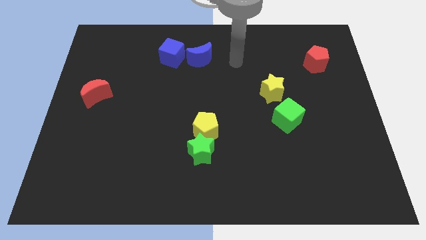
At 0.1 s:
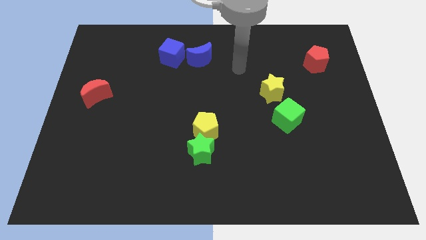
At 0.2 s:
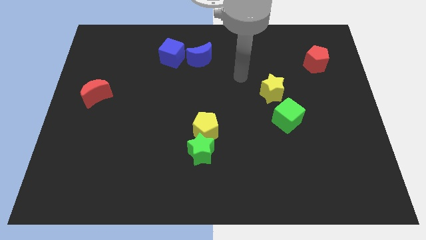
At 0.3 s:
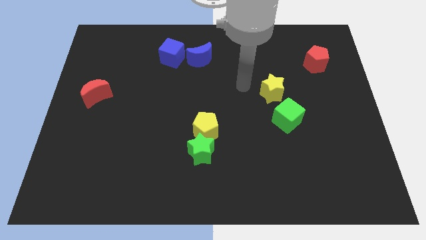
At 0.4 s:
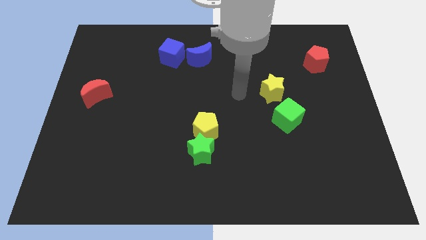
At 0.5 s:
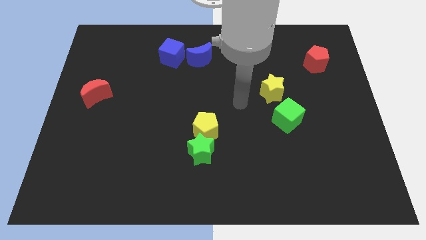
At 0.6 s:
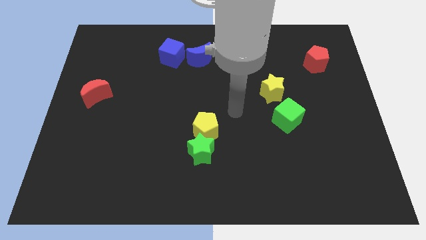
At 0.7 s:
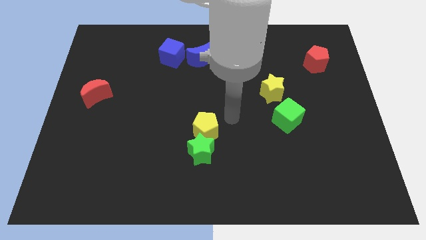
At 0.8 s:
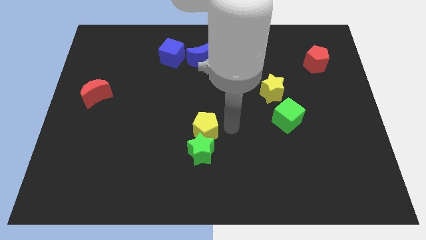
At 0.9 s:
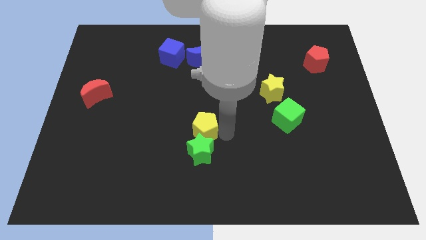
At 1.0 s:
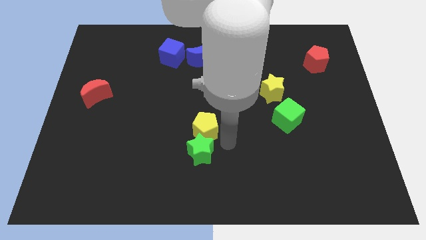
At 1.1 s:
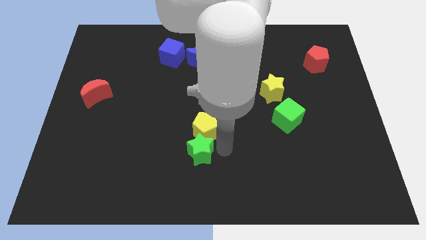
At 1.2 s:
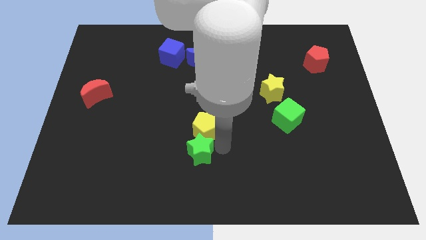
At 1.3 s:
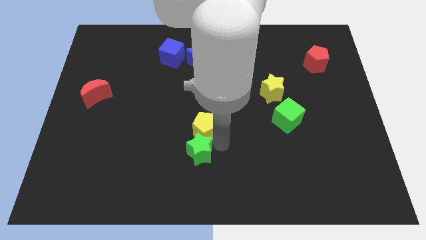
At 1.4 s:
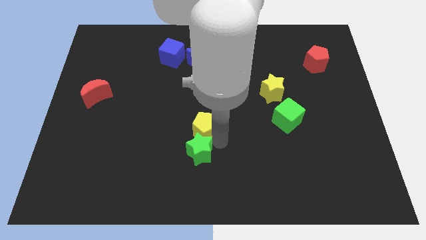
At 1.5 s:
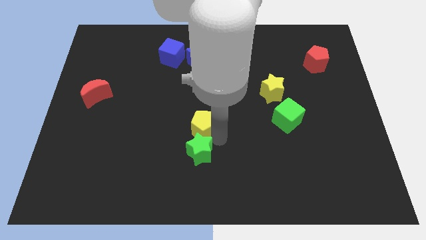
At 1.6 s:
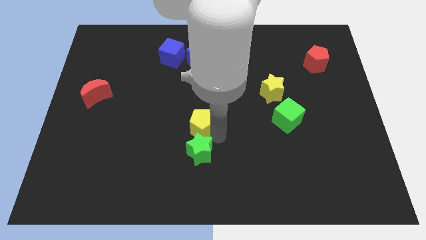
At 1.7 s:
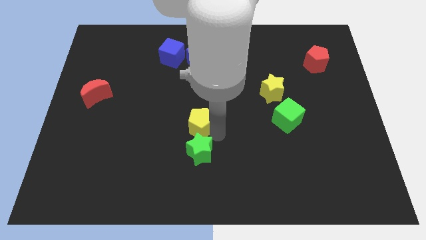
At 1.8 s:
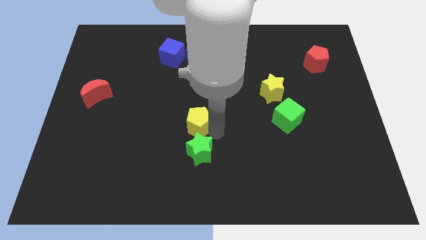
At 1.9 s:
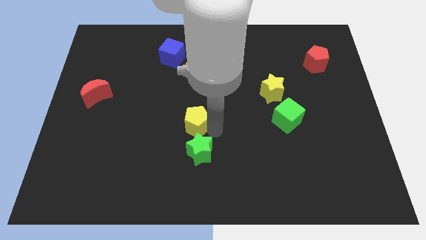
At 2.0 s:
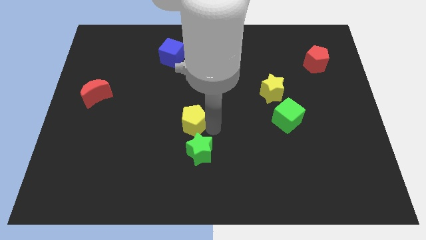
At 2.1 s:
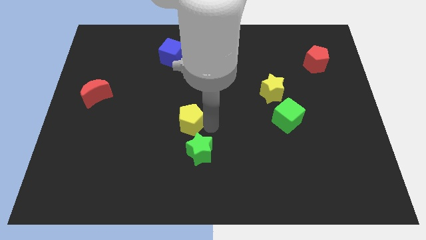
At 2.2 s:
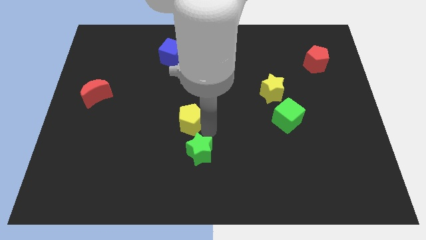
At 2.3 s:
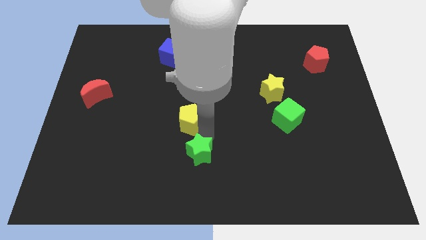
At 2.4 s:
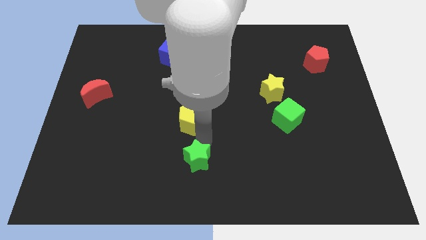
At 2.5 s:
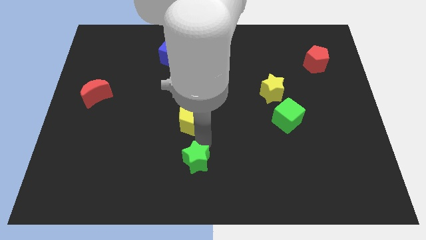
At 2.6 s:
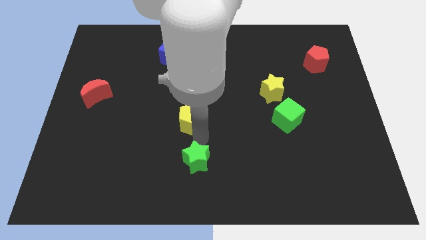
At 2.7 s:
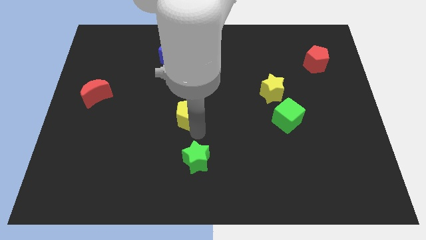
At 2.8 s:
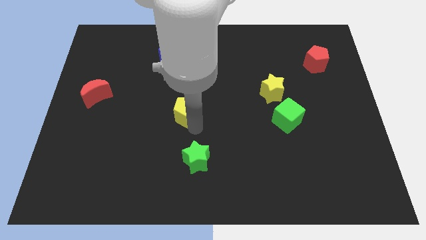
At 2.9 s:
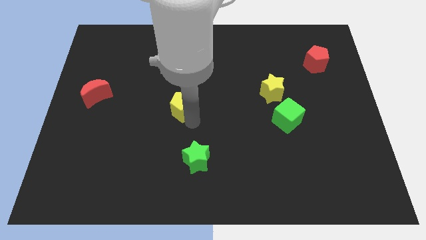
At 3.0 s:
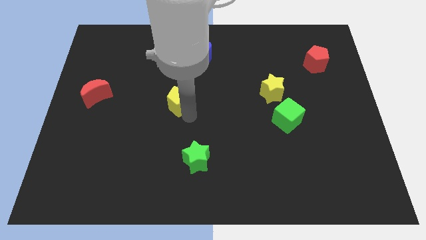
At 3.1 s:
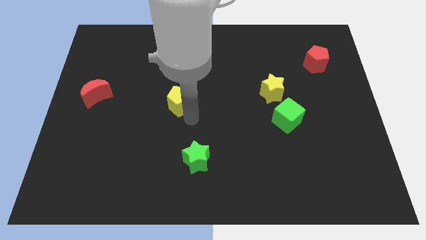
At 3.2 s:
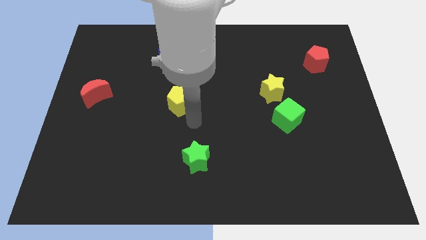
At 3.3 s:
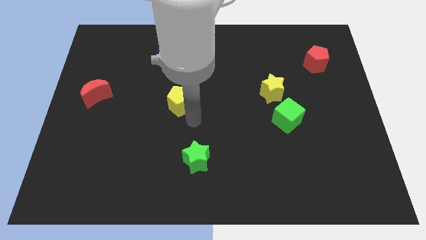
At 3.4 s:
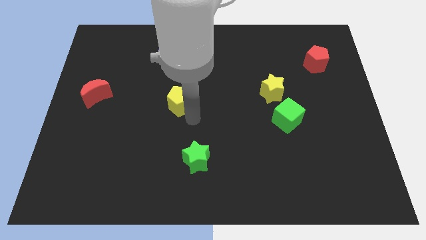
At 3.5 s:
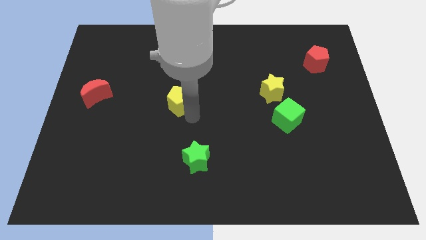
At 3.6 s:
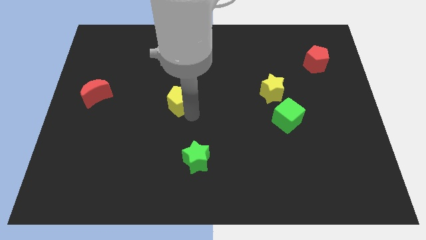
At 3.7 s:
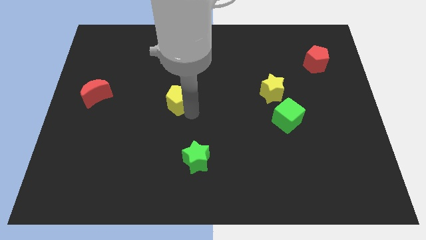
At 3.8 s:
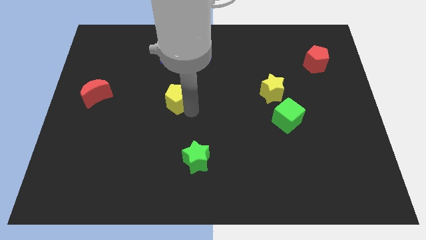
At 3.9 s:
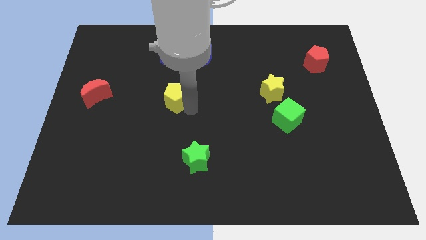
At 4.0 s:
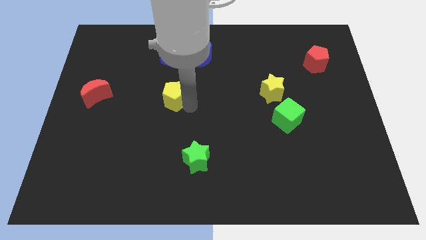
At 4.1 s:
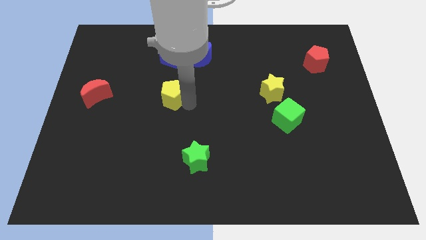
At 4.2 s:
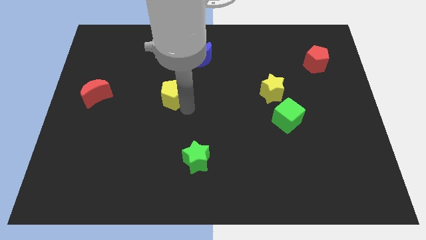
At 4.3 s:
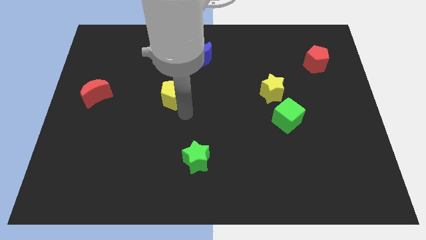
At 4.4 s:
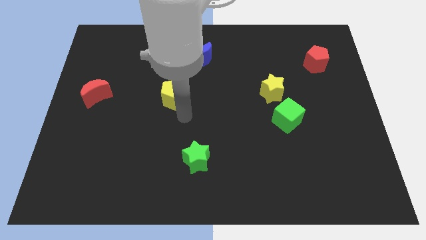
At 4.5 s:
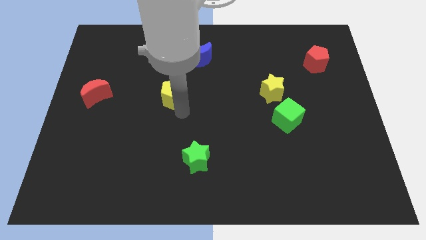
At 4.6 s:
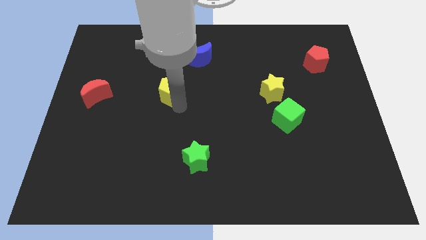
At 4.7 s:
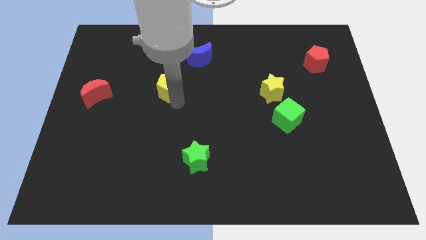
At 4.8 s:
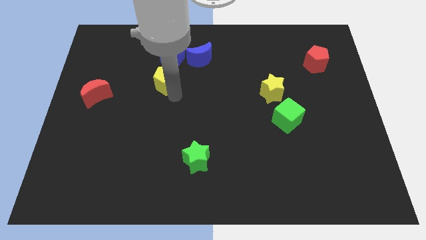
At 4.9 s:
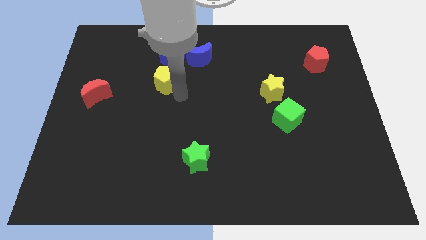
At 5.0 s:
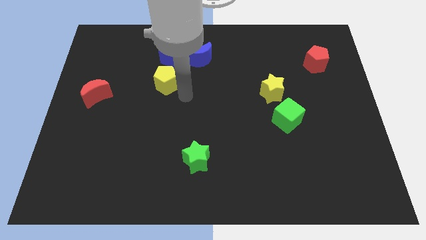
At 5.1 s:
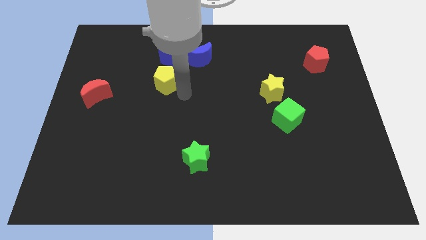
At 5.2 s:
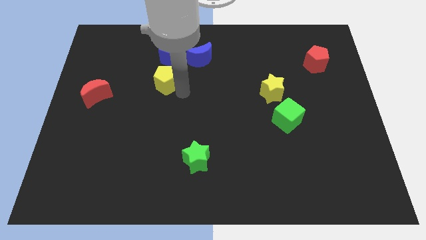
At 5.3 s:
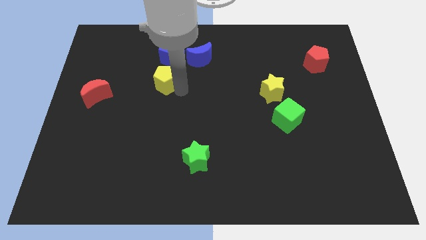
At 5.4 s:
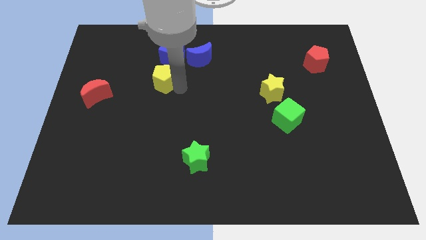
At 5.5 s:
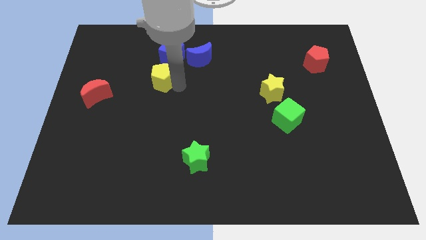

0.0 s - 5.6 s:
put the yellow pentagon diagonally down and to the left of the blue cube
